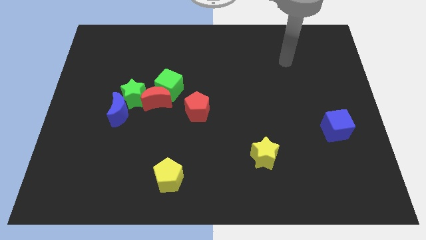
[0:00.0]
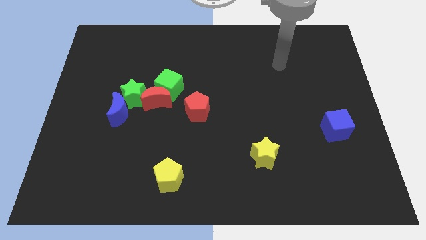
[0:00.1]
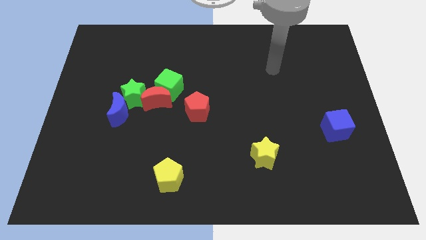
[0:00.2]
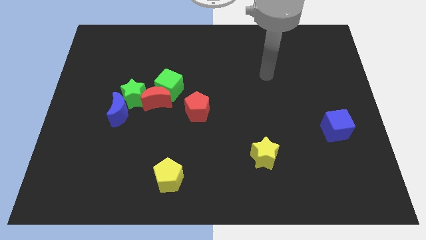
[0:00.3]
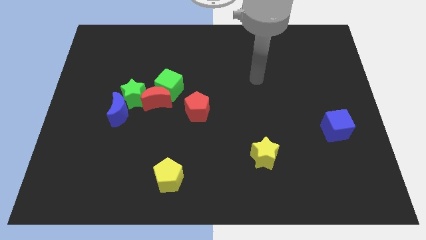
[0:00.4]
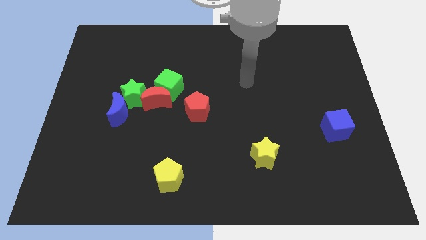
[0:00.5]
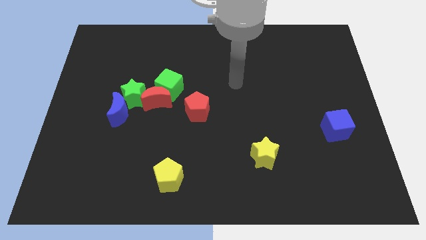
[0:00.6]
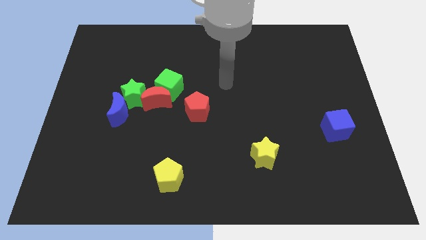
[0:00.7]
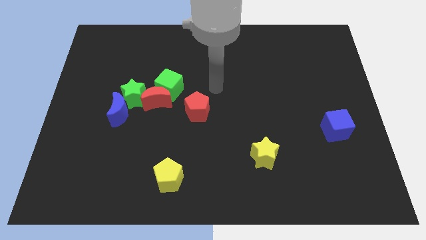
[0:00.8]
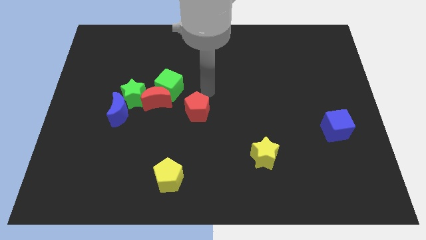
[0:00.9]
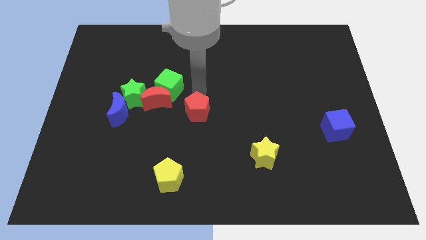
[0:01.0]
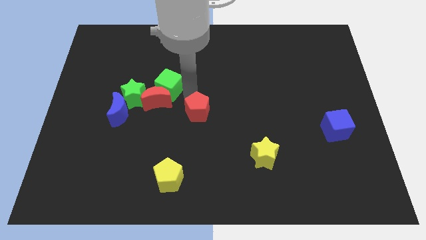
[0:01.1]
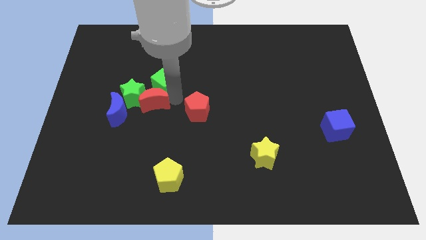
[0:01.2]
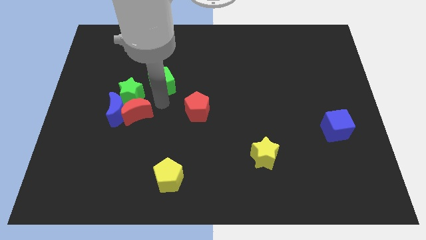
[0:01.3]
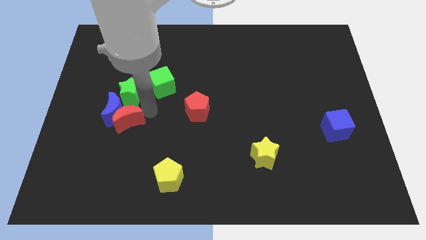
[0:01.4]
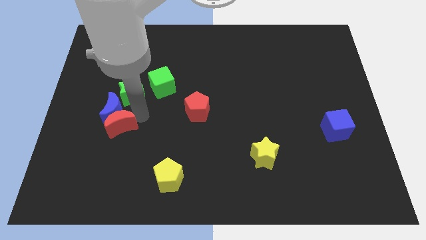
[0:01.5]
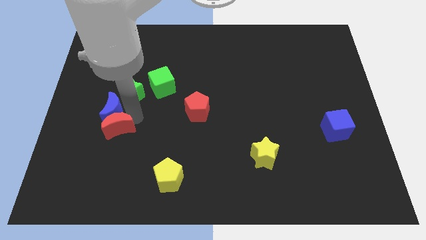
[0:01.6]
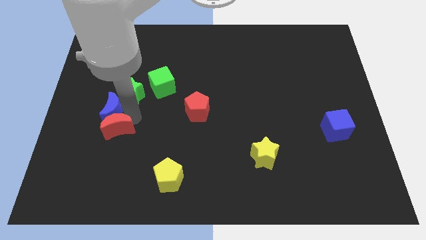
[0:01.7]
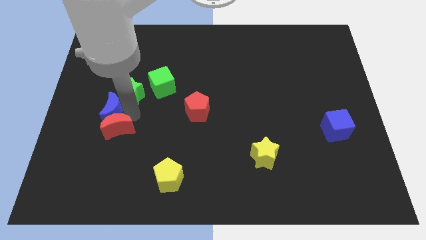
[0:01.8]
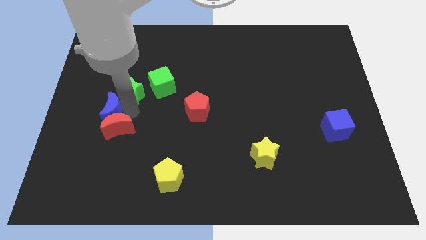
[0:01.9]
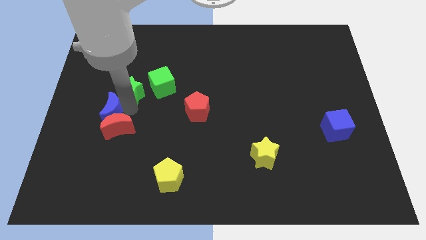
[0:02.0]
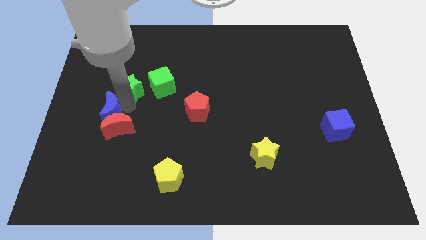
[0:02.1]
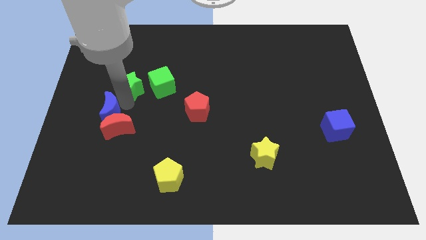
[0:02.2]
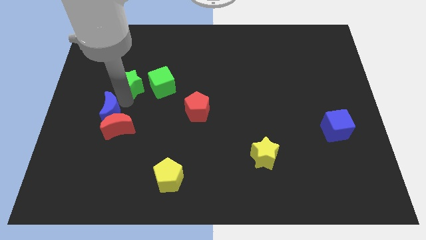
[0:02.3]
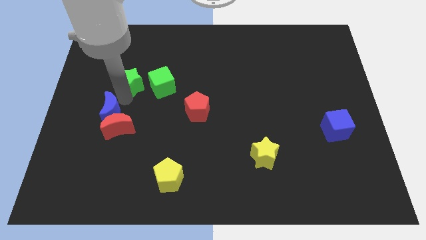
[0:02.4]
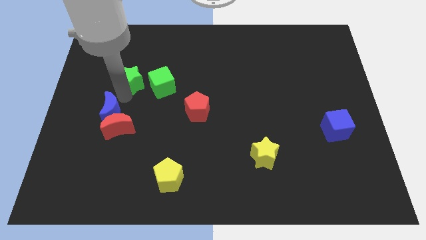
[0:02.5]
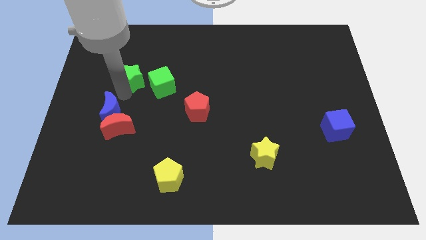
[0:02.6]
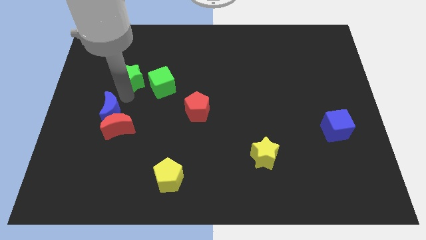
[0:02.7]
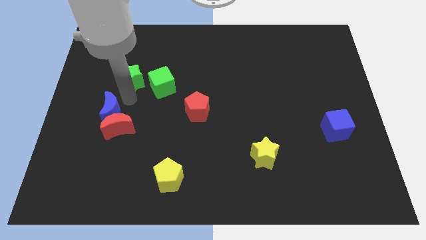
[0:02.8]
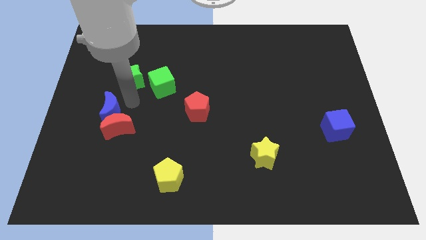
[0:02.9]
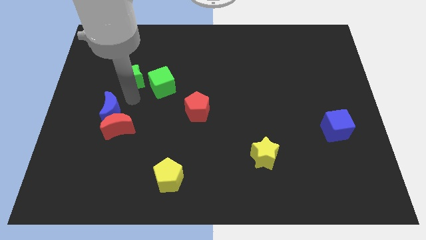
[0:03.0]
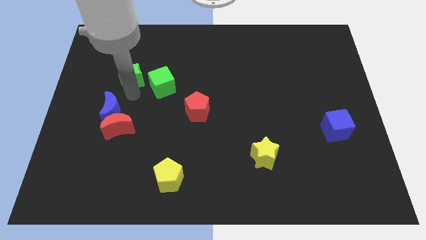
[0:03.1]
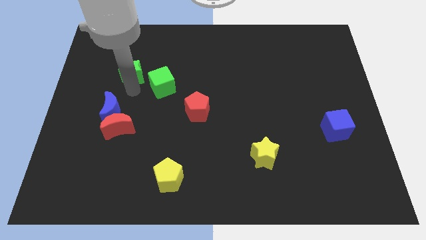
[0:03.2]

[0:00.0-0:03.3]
move the green star away from the blue moon, red moon, and green cube

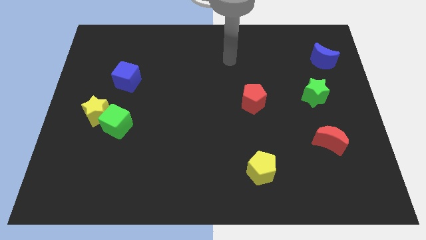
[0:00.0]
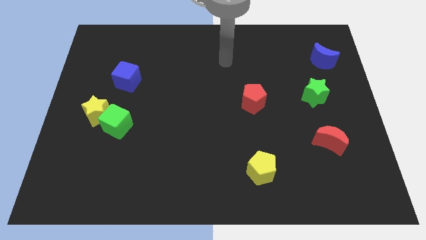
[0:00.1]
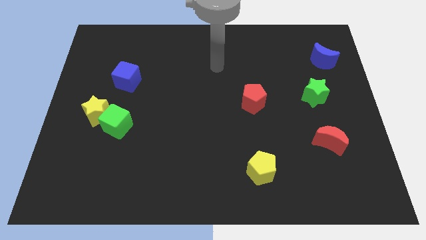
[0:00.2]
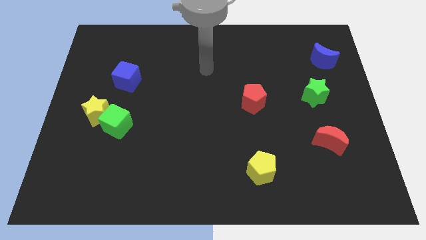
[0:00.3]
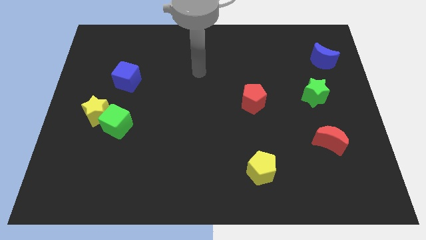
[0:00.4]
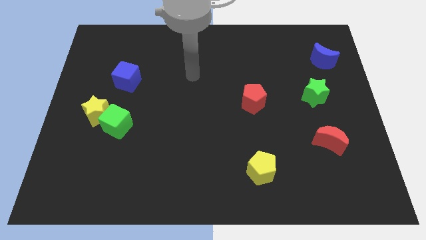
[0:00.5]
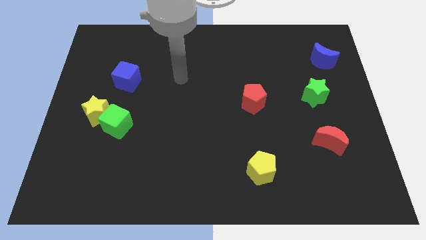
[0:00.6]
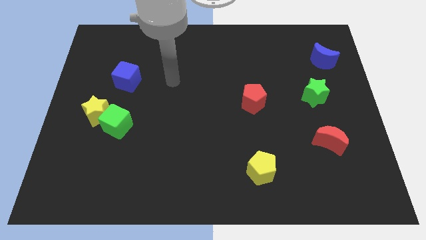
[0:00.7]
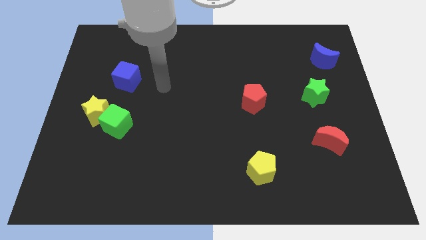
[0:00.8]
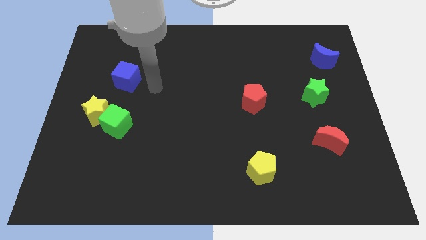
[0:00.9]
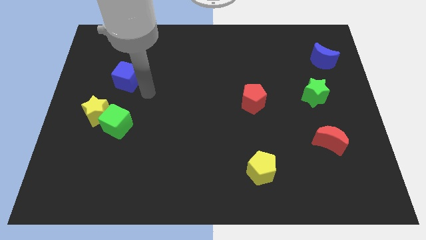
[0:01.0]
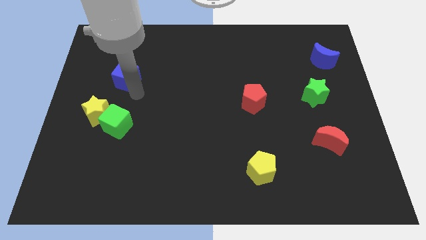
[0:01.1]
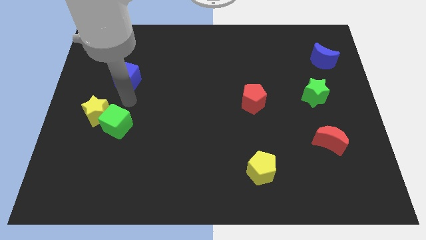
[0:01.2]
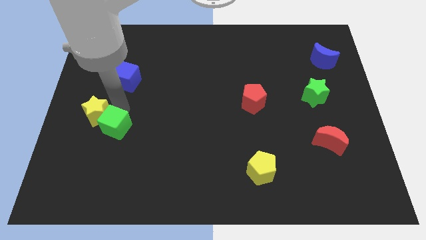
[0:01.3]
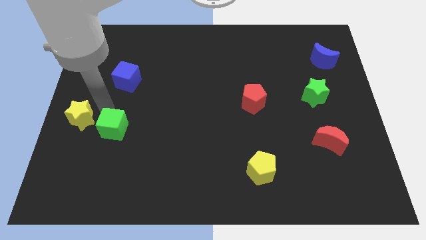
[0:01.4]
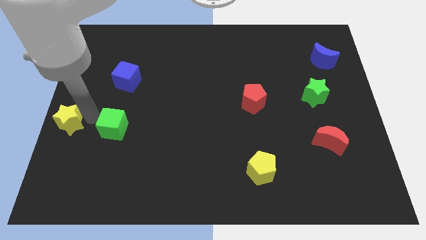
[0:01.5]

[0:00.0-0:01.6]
pull the green cube apart from the yellow star

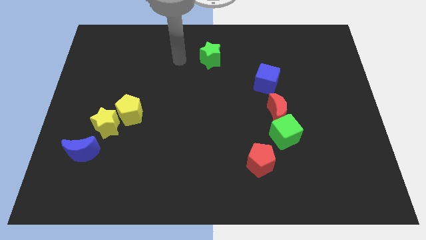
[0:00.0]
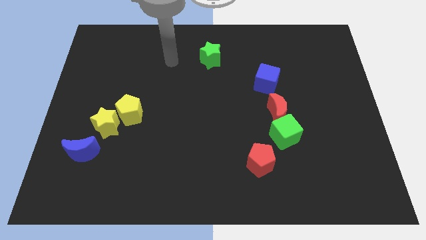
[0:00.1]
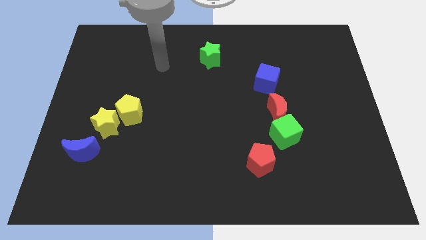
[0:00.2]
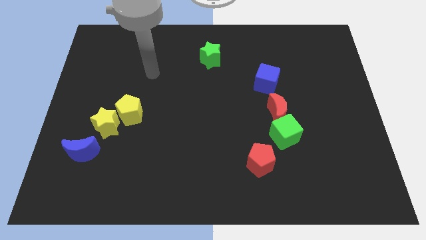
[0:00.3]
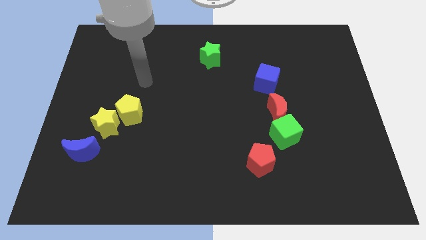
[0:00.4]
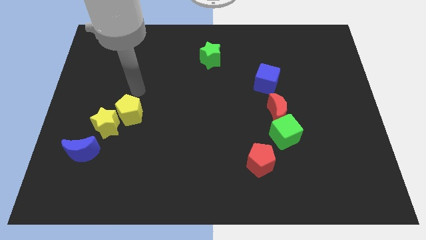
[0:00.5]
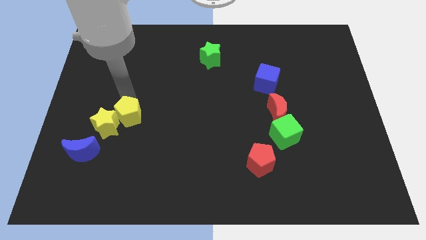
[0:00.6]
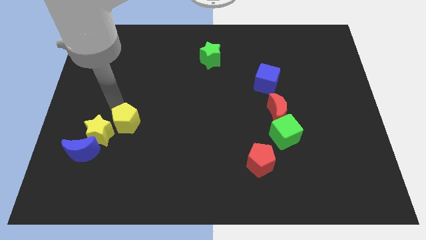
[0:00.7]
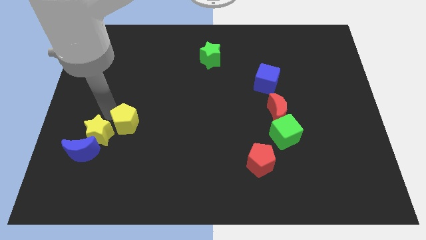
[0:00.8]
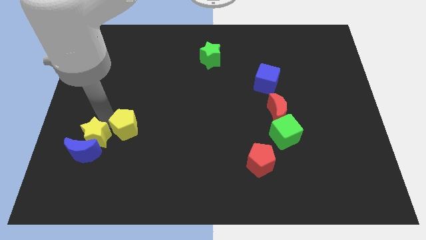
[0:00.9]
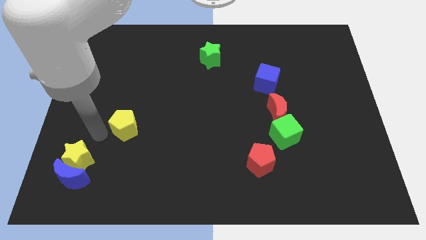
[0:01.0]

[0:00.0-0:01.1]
pull the yellow pentagon apart from the yellow star

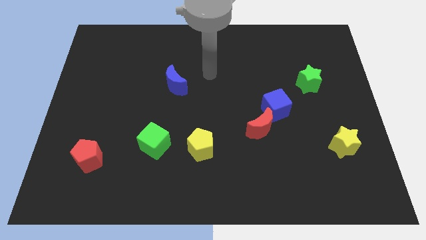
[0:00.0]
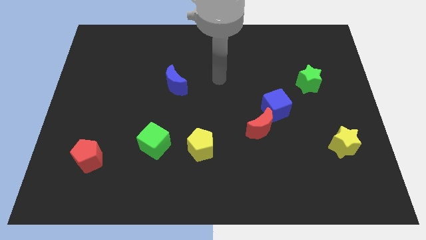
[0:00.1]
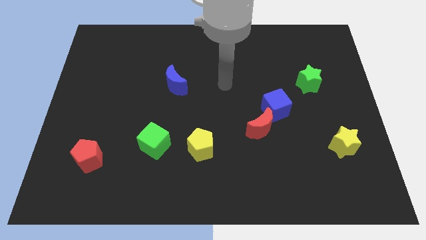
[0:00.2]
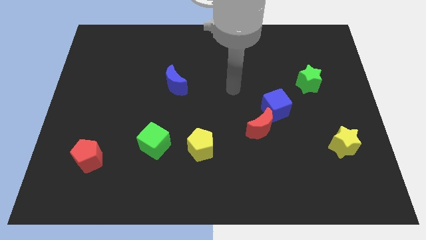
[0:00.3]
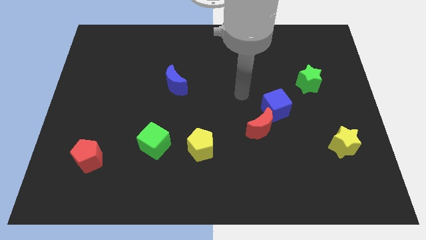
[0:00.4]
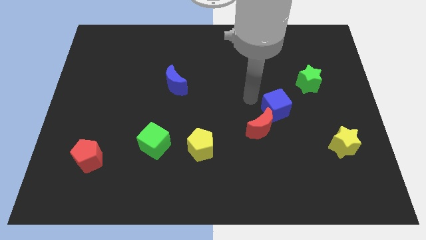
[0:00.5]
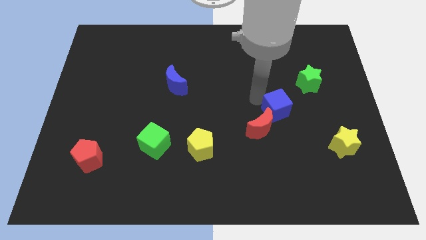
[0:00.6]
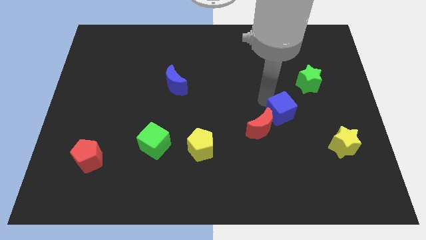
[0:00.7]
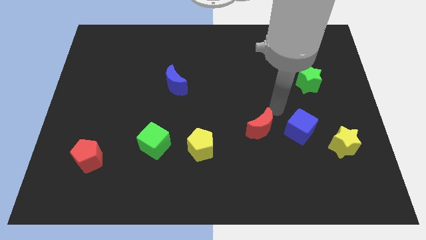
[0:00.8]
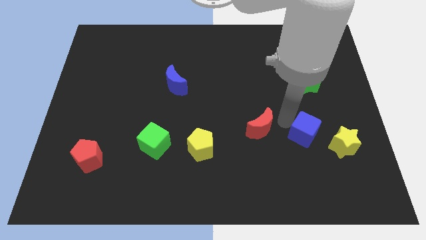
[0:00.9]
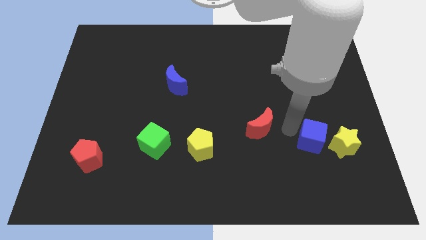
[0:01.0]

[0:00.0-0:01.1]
separate the red moon from the blue cube

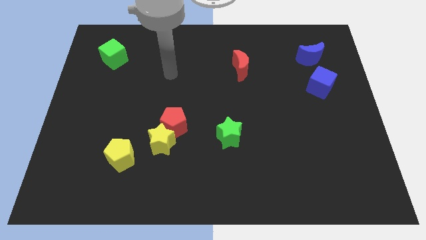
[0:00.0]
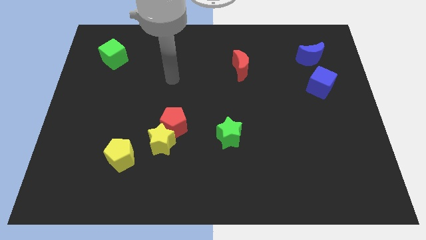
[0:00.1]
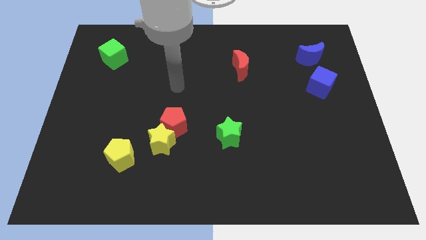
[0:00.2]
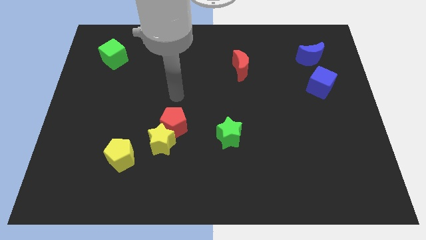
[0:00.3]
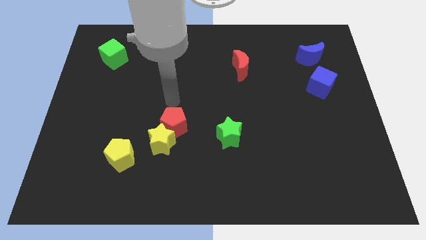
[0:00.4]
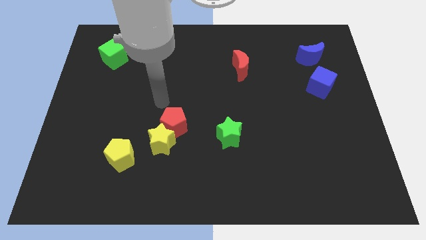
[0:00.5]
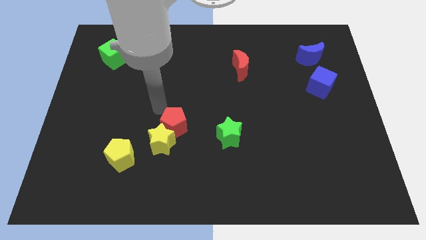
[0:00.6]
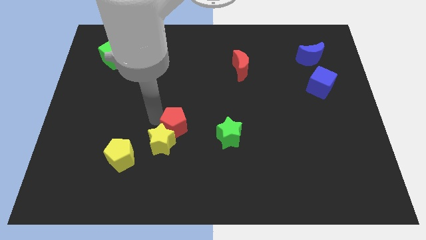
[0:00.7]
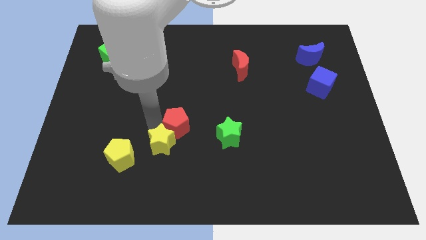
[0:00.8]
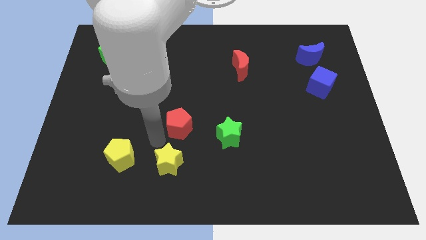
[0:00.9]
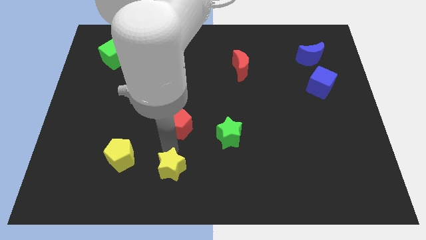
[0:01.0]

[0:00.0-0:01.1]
pull the red pentagon apart from the yellow star

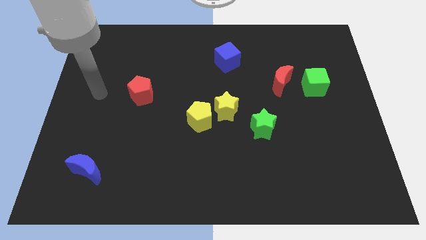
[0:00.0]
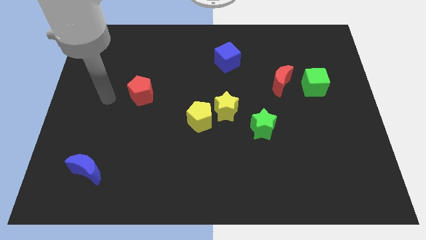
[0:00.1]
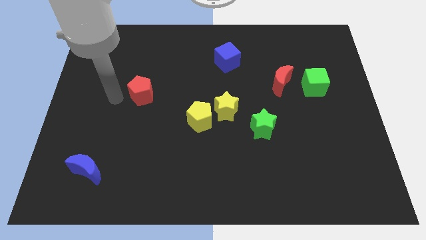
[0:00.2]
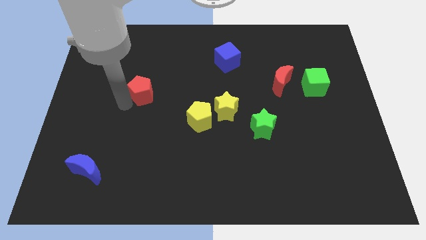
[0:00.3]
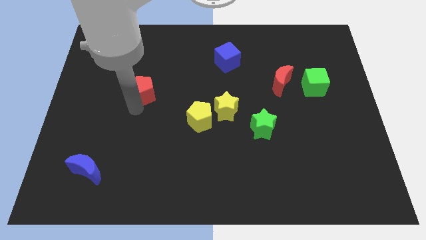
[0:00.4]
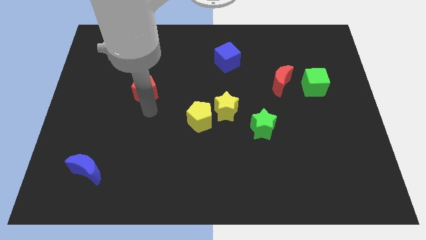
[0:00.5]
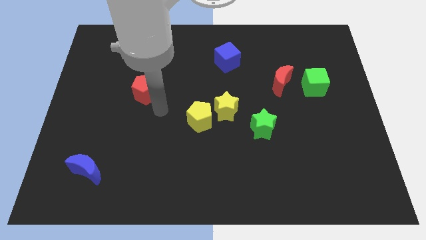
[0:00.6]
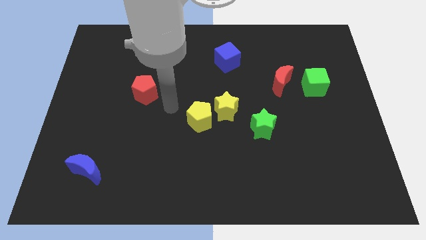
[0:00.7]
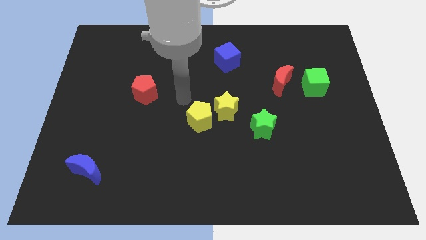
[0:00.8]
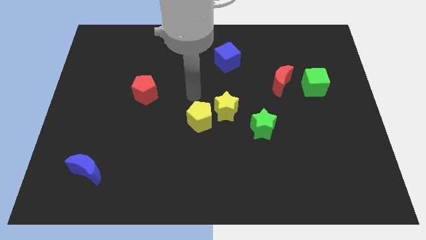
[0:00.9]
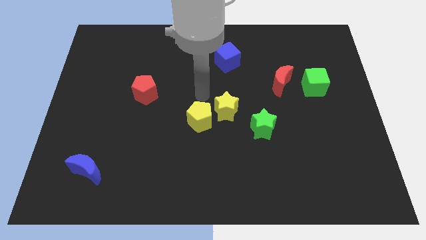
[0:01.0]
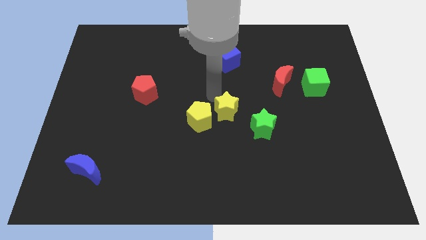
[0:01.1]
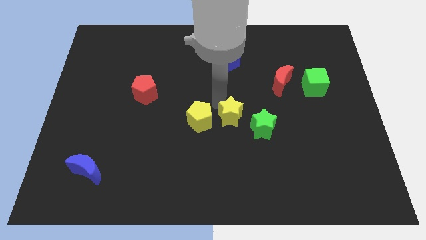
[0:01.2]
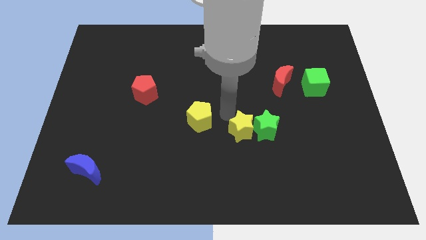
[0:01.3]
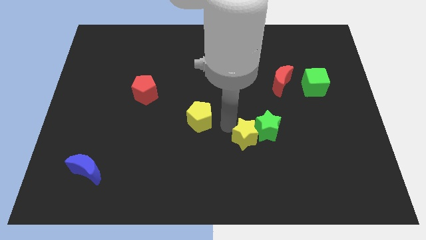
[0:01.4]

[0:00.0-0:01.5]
move the yellow pentagon away from the yellow star
